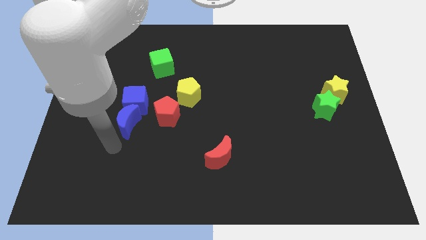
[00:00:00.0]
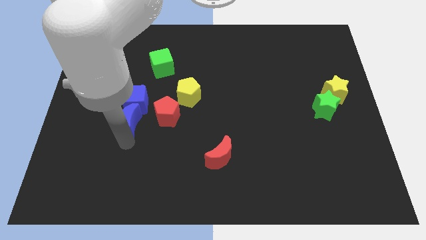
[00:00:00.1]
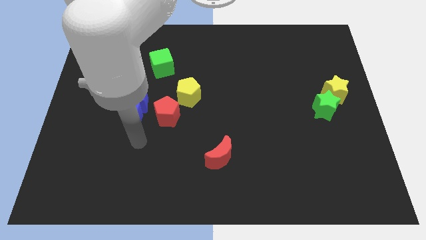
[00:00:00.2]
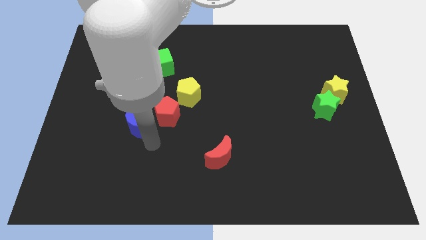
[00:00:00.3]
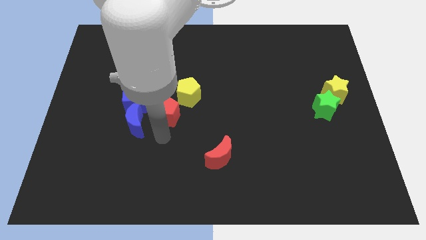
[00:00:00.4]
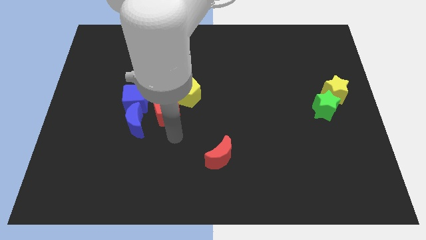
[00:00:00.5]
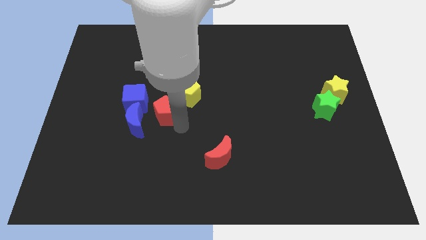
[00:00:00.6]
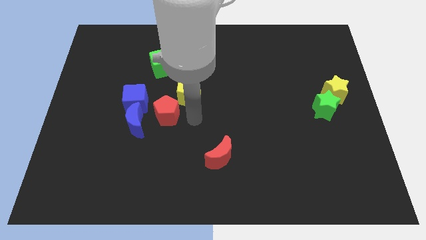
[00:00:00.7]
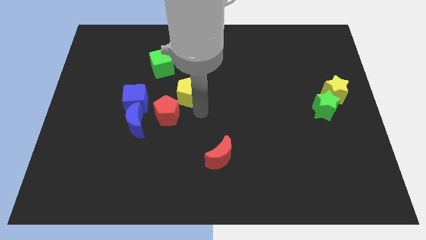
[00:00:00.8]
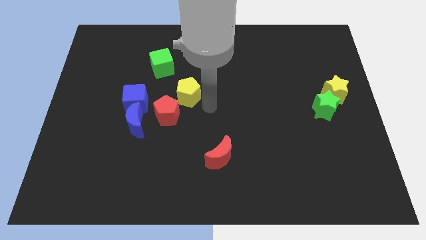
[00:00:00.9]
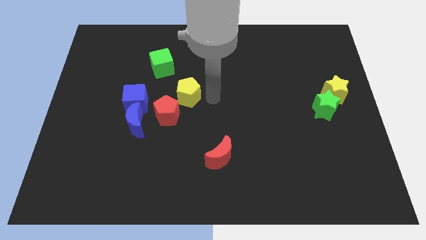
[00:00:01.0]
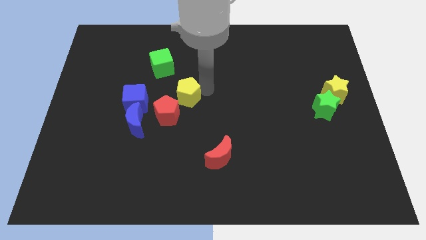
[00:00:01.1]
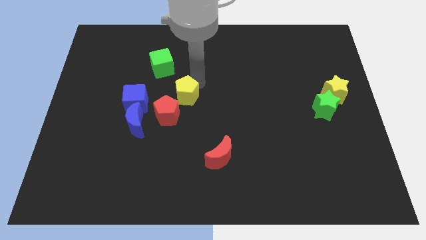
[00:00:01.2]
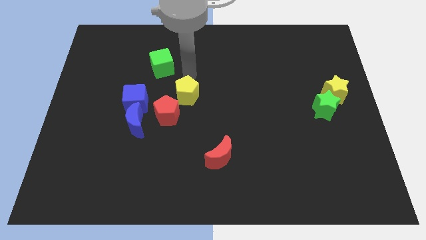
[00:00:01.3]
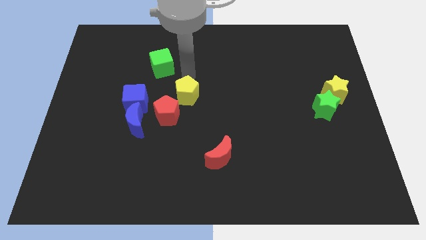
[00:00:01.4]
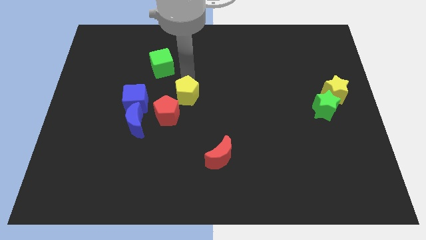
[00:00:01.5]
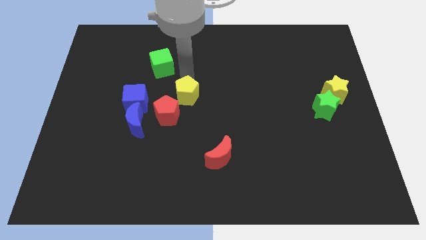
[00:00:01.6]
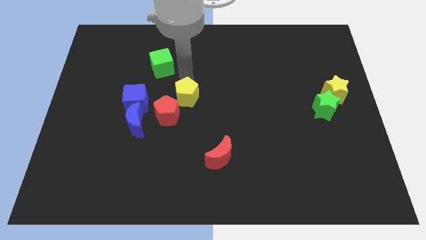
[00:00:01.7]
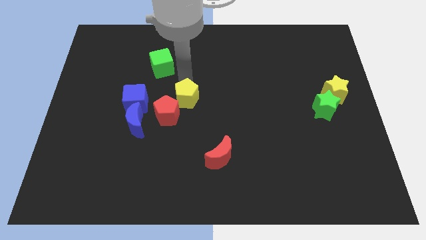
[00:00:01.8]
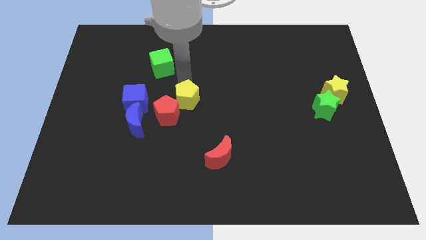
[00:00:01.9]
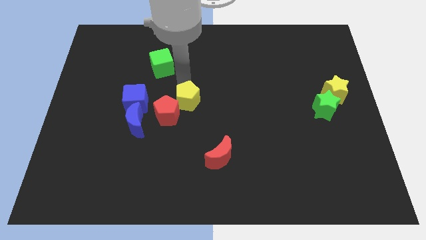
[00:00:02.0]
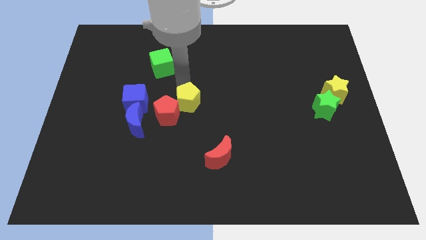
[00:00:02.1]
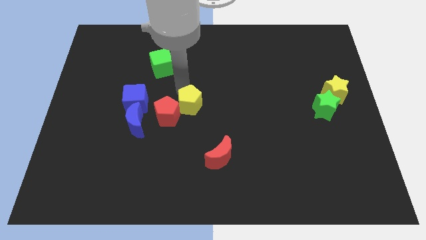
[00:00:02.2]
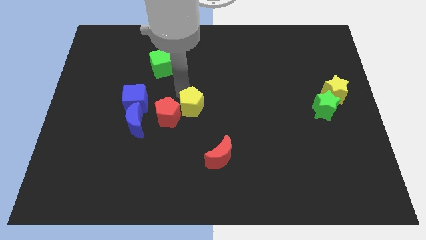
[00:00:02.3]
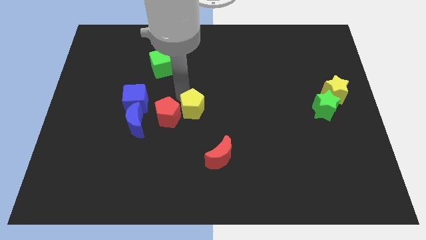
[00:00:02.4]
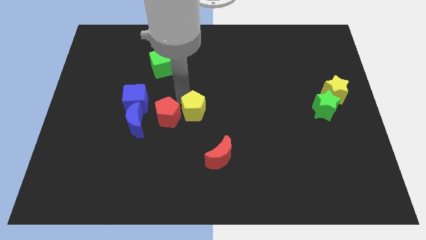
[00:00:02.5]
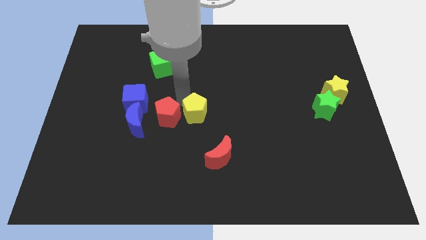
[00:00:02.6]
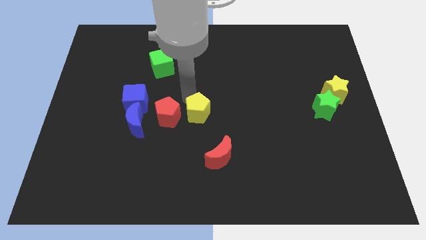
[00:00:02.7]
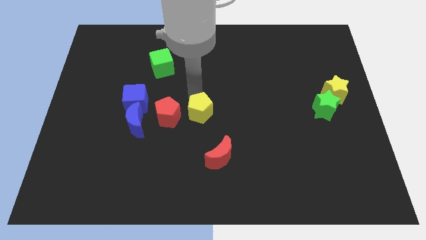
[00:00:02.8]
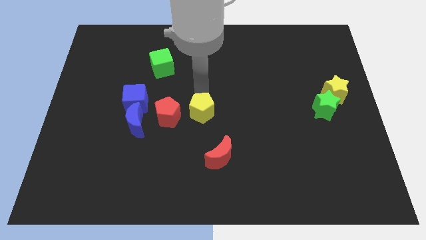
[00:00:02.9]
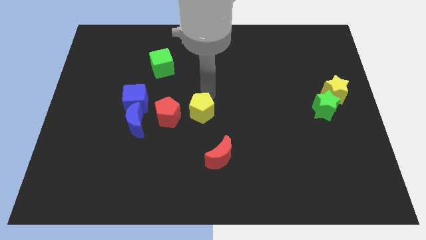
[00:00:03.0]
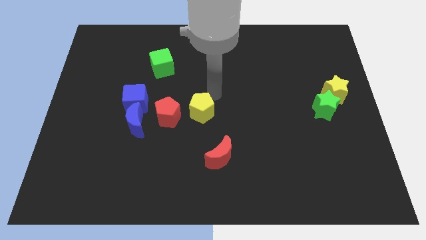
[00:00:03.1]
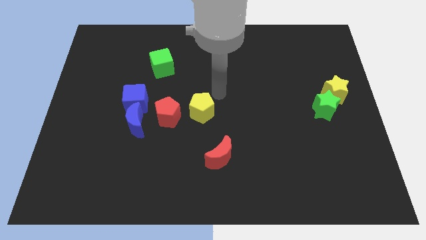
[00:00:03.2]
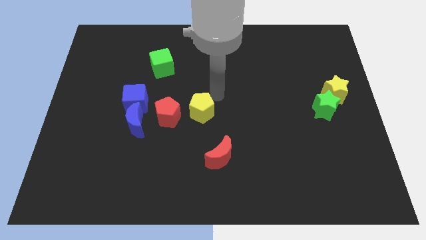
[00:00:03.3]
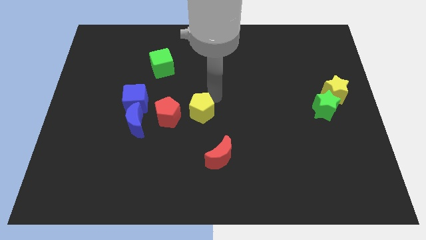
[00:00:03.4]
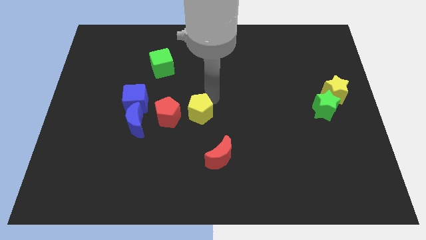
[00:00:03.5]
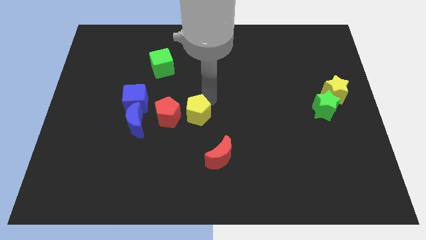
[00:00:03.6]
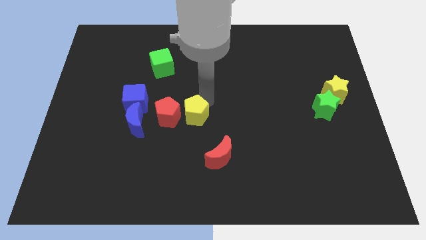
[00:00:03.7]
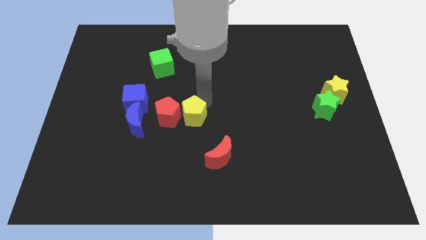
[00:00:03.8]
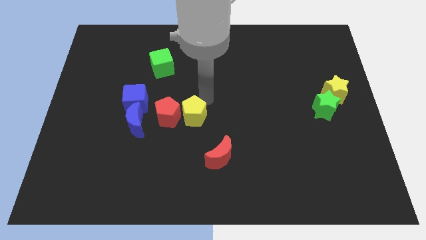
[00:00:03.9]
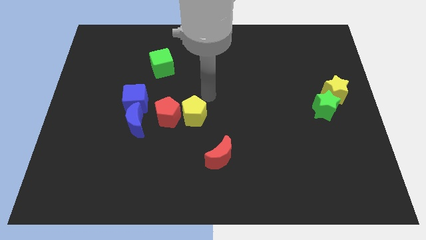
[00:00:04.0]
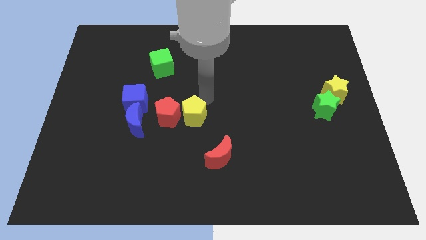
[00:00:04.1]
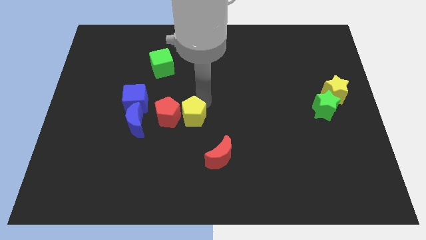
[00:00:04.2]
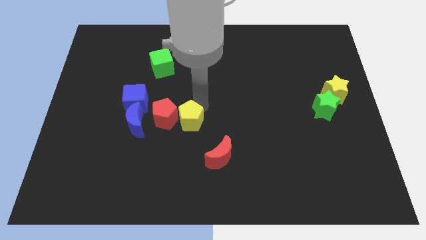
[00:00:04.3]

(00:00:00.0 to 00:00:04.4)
slightly slide the yellow pentagon down

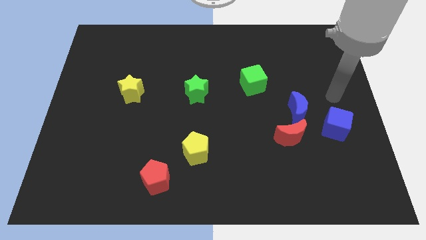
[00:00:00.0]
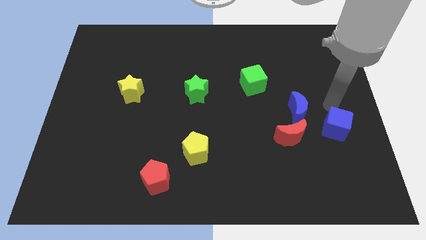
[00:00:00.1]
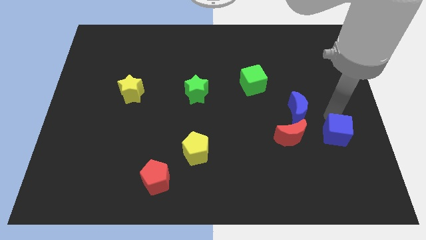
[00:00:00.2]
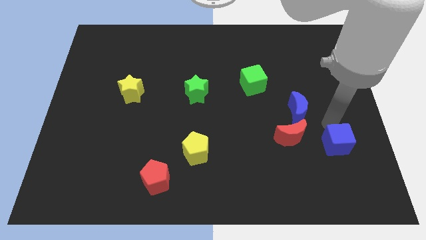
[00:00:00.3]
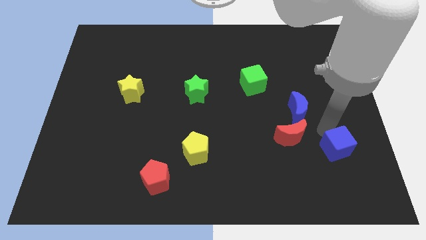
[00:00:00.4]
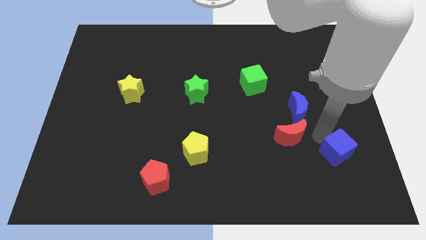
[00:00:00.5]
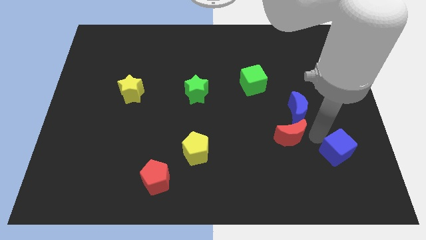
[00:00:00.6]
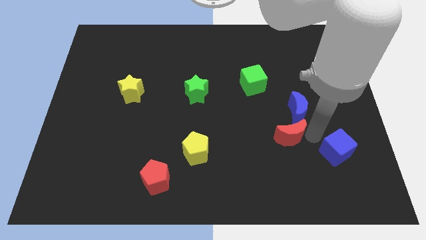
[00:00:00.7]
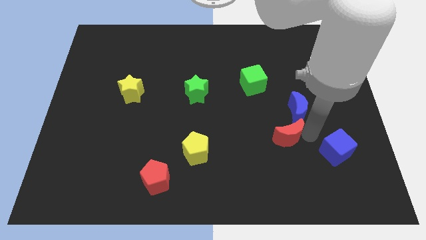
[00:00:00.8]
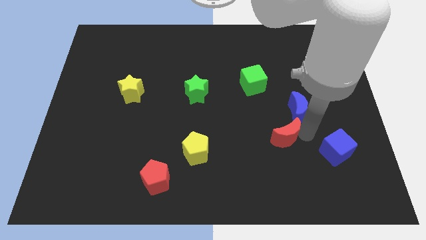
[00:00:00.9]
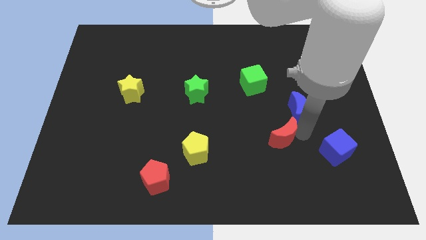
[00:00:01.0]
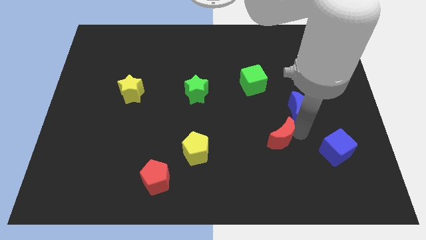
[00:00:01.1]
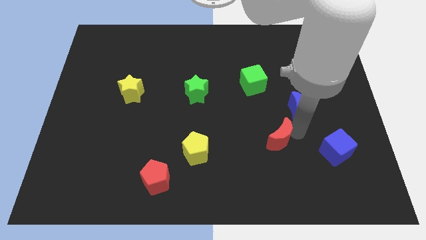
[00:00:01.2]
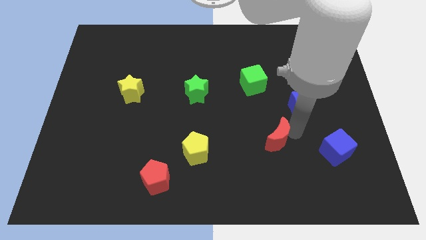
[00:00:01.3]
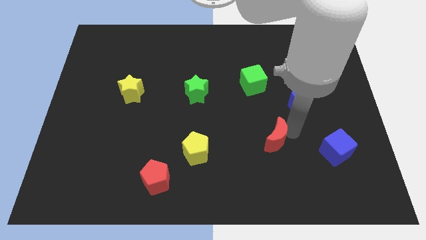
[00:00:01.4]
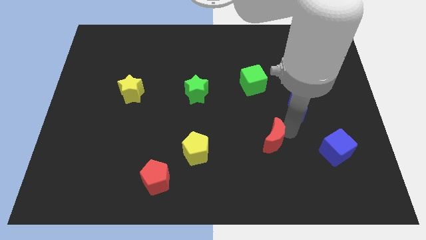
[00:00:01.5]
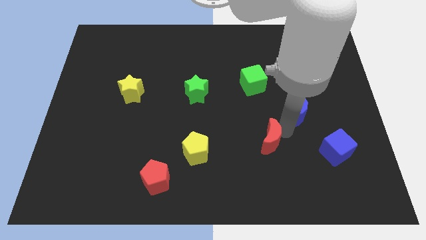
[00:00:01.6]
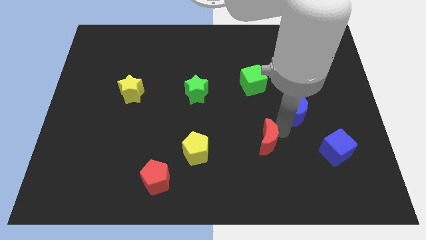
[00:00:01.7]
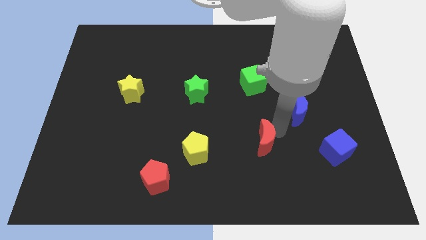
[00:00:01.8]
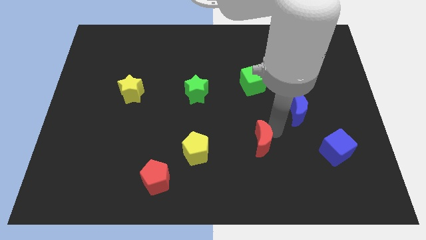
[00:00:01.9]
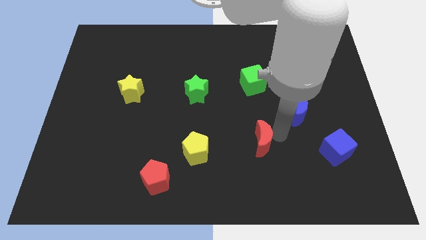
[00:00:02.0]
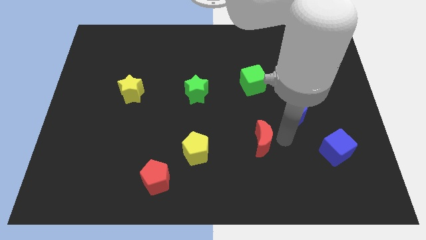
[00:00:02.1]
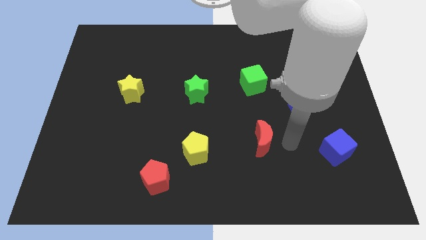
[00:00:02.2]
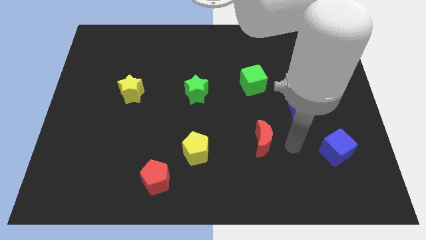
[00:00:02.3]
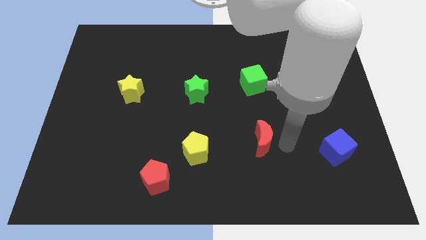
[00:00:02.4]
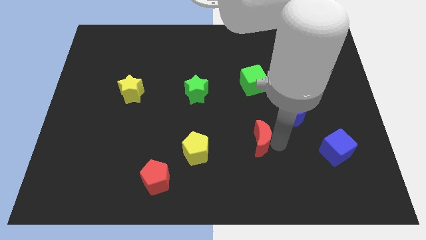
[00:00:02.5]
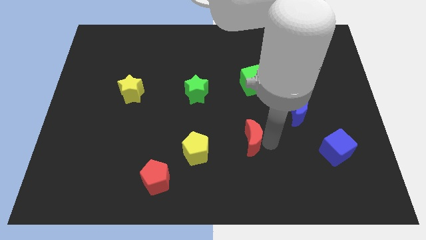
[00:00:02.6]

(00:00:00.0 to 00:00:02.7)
slightly push the red moon to the left

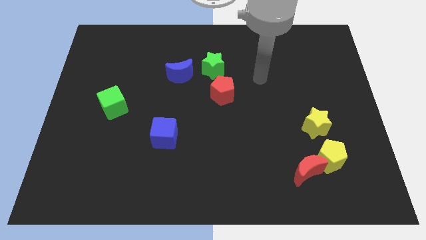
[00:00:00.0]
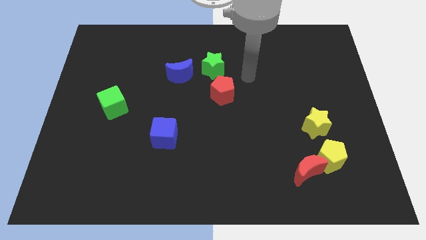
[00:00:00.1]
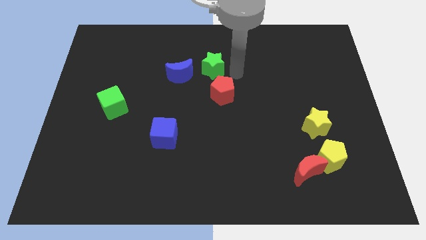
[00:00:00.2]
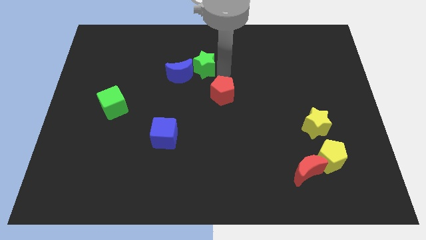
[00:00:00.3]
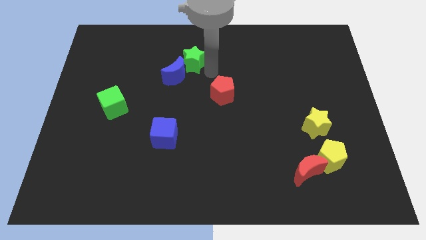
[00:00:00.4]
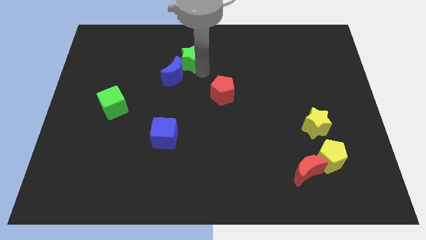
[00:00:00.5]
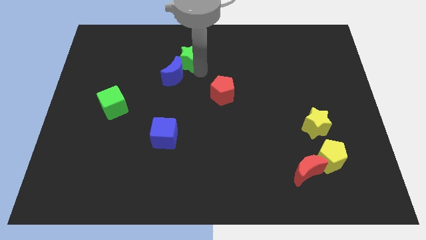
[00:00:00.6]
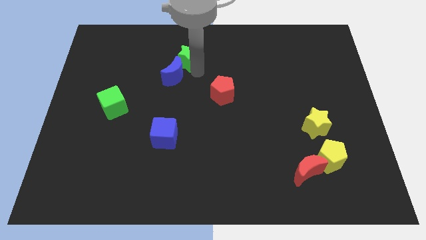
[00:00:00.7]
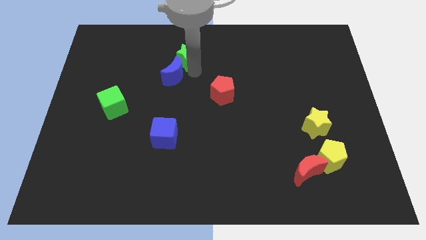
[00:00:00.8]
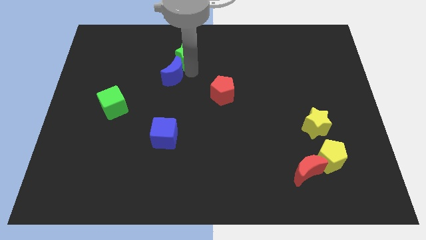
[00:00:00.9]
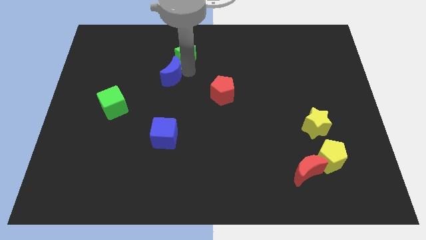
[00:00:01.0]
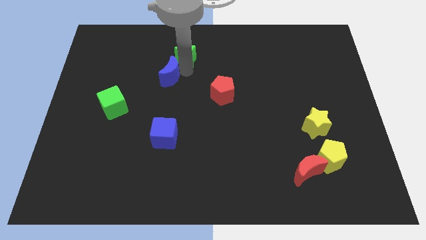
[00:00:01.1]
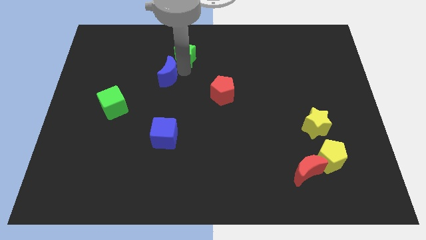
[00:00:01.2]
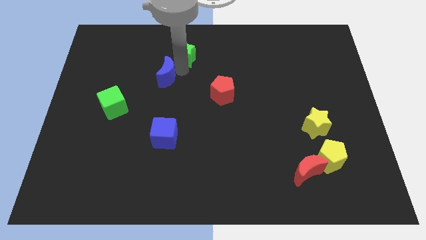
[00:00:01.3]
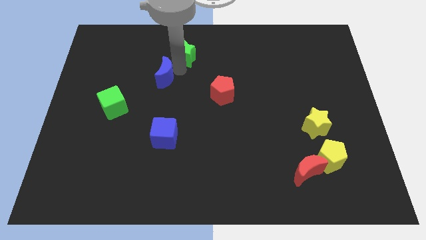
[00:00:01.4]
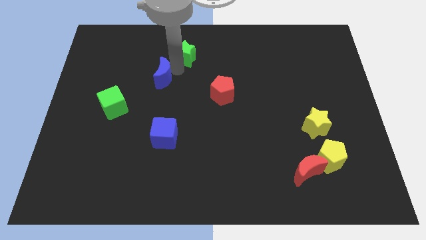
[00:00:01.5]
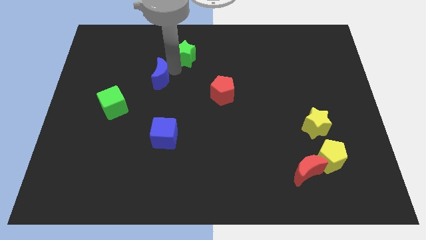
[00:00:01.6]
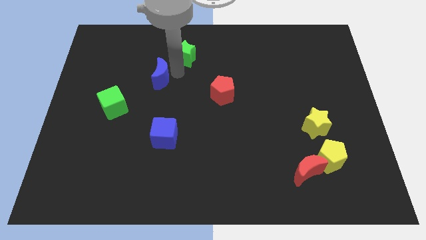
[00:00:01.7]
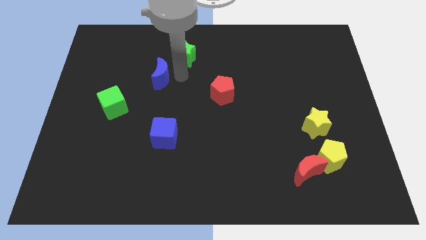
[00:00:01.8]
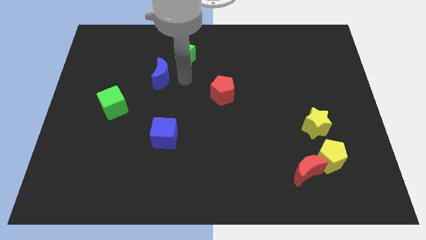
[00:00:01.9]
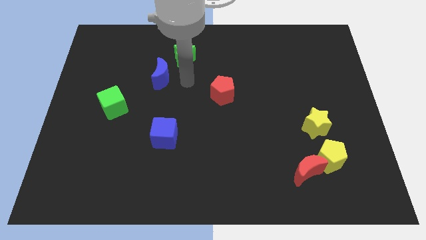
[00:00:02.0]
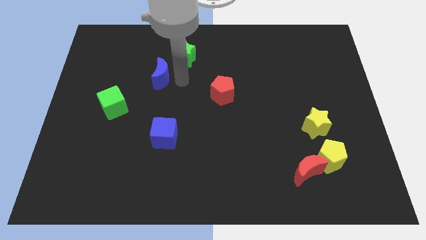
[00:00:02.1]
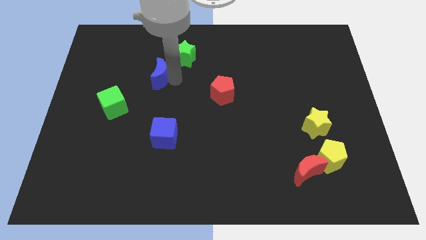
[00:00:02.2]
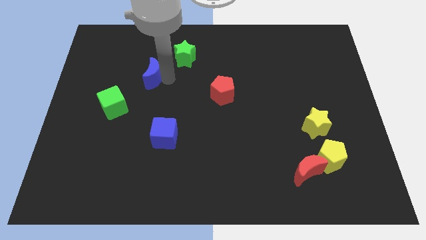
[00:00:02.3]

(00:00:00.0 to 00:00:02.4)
move the blue moon left a bit
